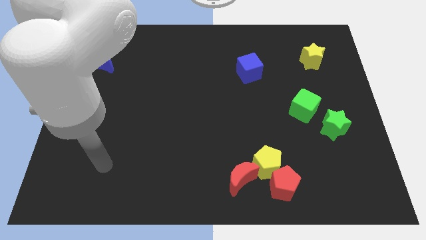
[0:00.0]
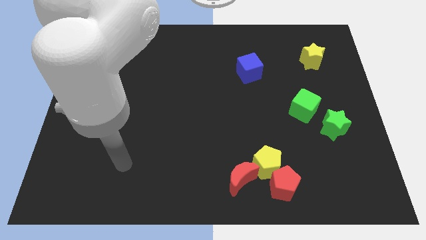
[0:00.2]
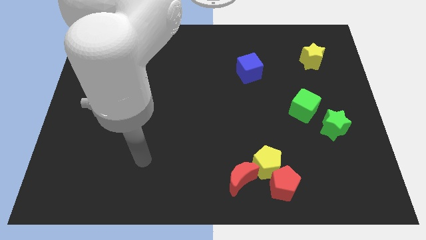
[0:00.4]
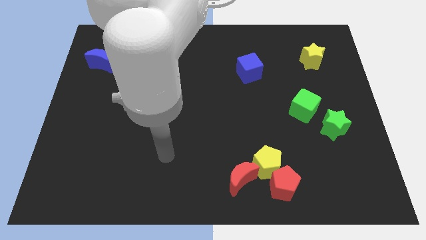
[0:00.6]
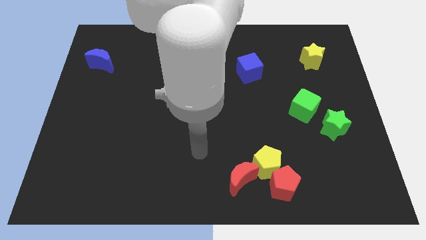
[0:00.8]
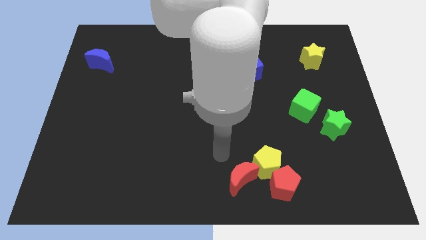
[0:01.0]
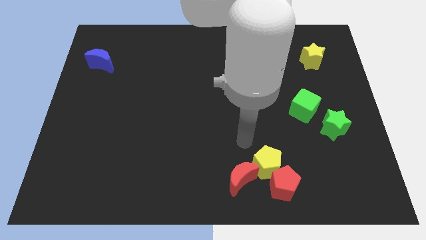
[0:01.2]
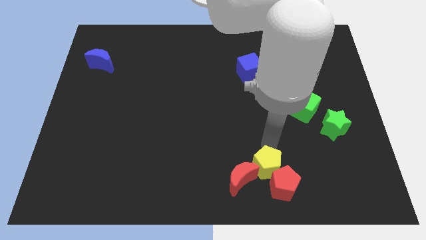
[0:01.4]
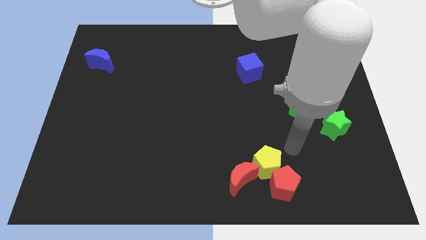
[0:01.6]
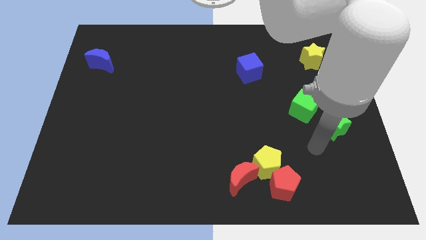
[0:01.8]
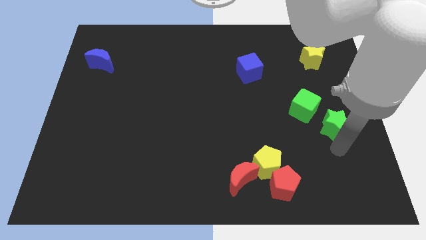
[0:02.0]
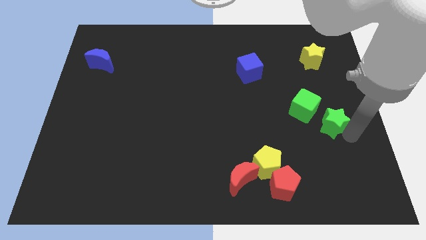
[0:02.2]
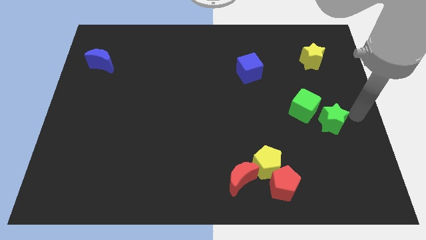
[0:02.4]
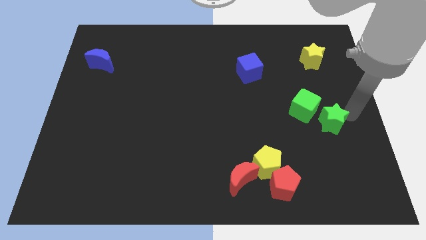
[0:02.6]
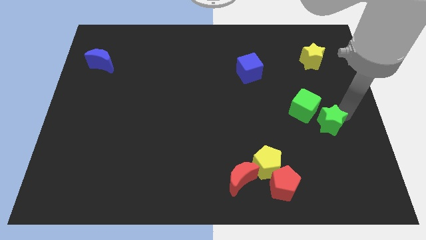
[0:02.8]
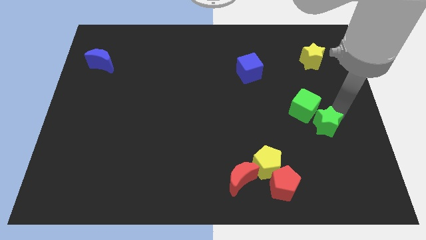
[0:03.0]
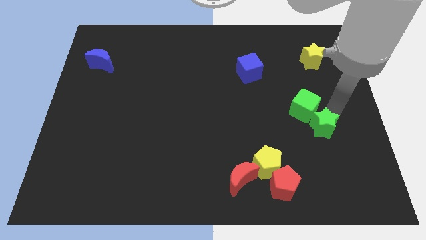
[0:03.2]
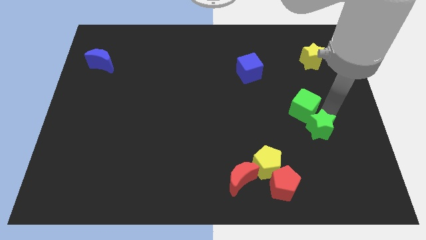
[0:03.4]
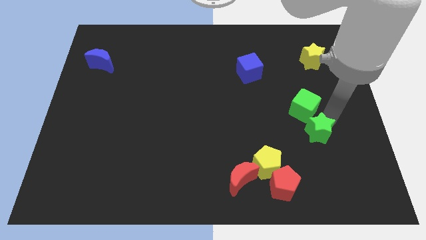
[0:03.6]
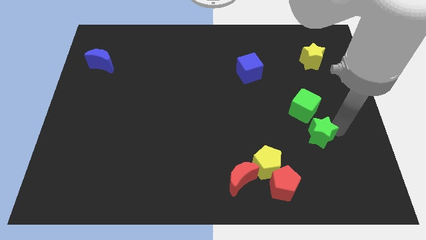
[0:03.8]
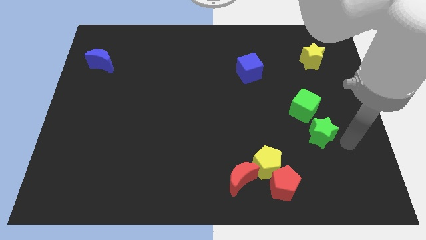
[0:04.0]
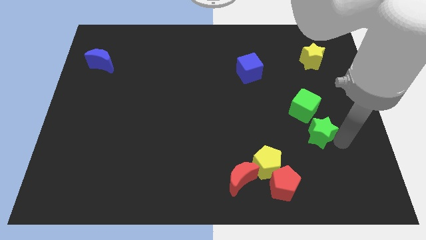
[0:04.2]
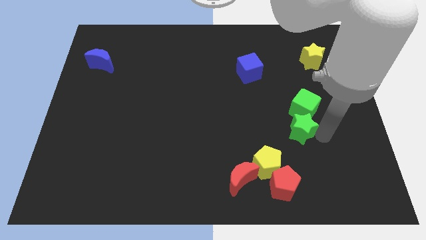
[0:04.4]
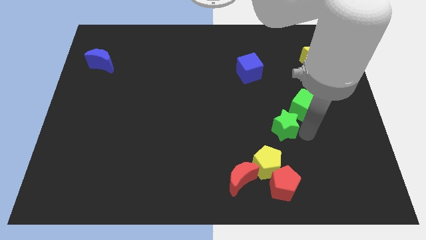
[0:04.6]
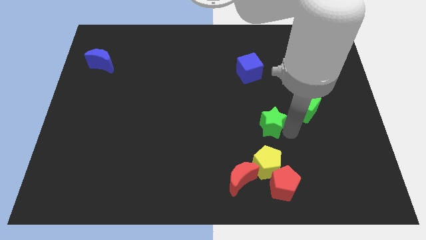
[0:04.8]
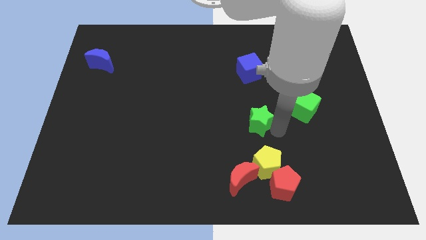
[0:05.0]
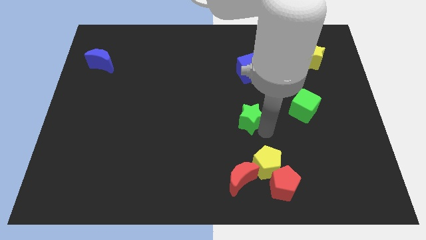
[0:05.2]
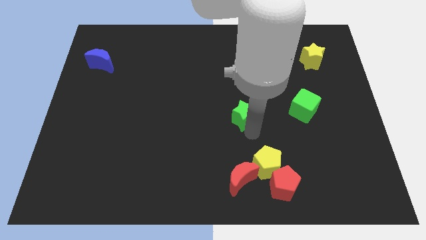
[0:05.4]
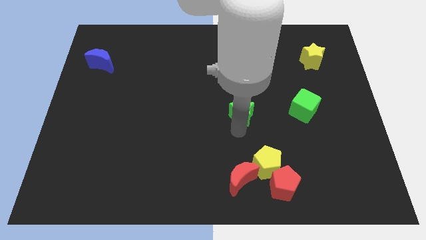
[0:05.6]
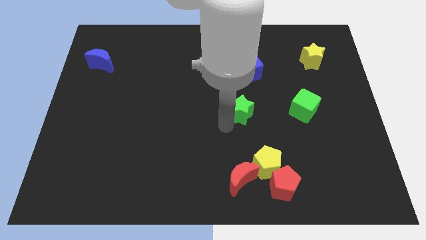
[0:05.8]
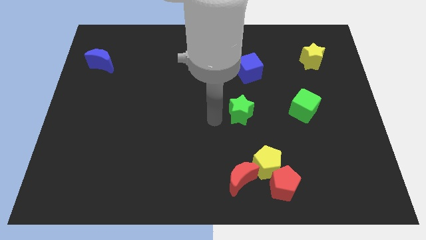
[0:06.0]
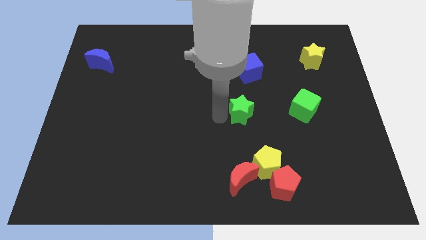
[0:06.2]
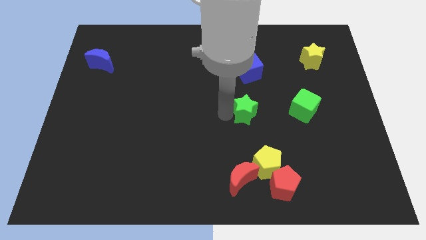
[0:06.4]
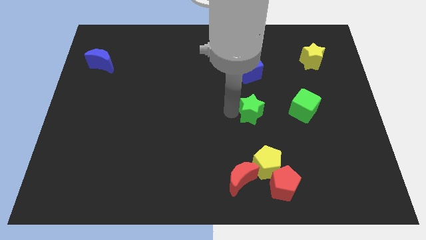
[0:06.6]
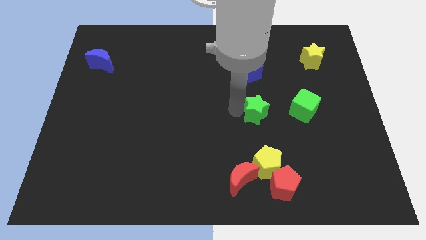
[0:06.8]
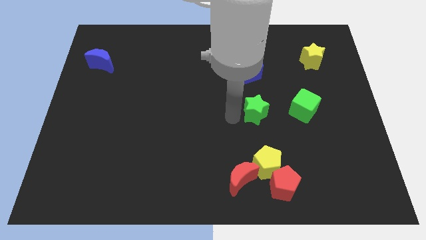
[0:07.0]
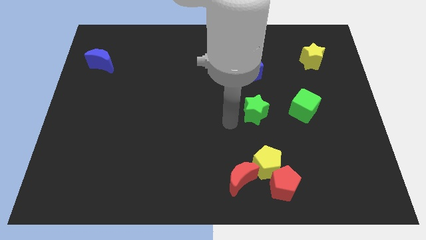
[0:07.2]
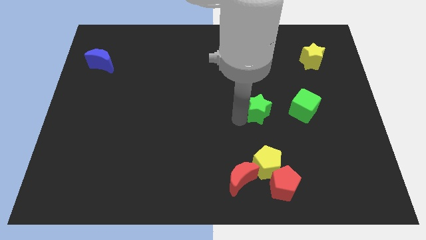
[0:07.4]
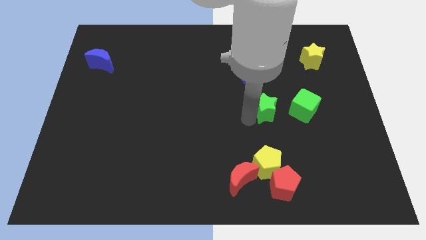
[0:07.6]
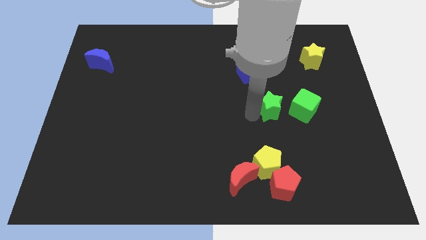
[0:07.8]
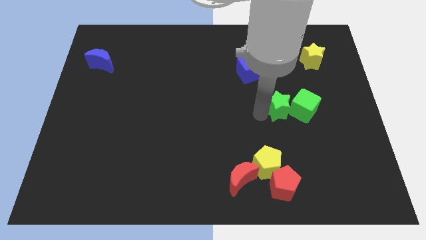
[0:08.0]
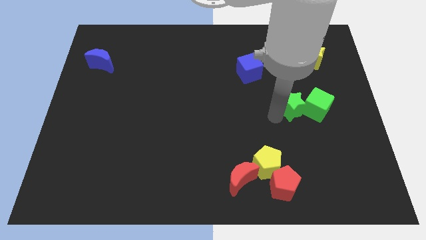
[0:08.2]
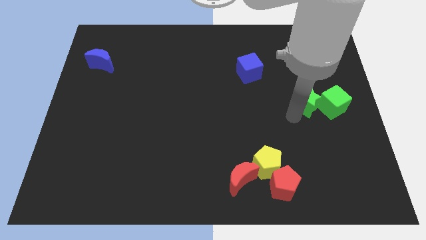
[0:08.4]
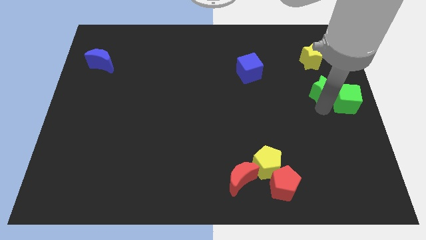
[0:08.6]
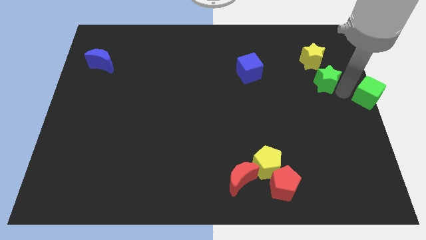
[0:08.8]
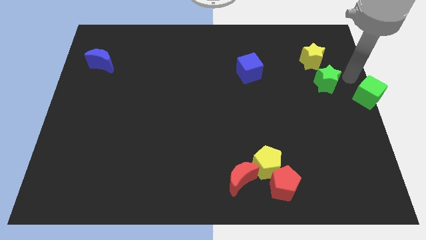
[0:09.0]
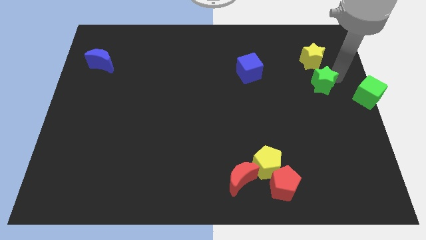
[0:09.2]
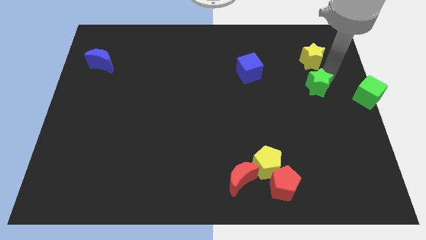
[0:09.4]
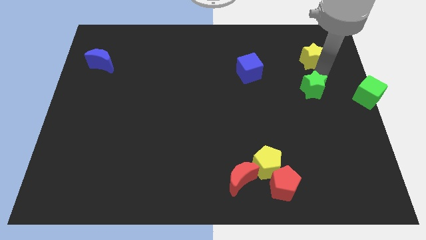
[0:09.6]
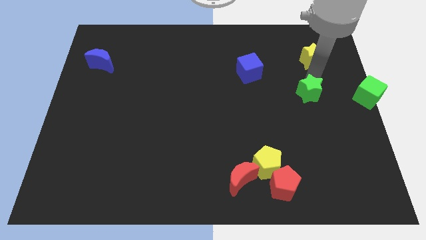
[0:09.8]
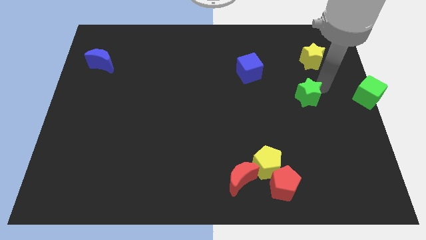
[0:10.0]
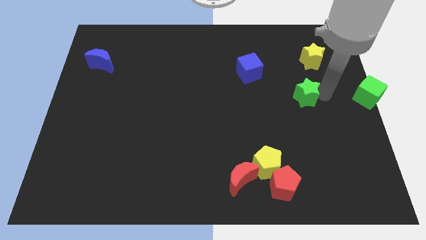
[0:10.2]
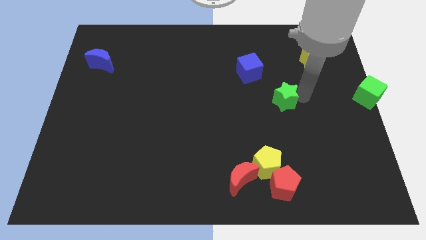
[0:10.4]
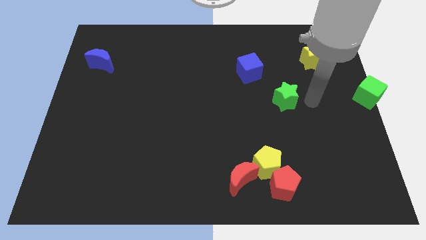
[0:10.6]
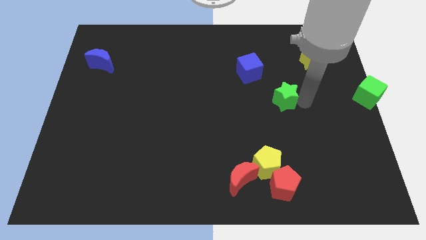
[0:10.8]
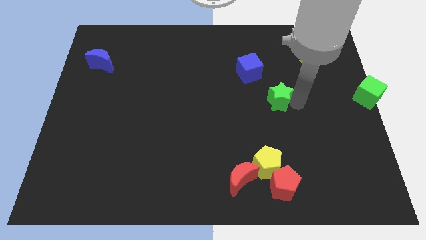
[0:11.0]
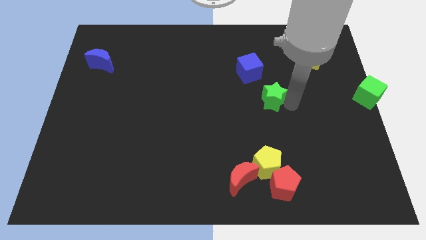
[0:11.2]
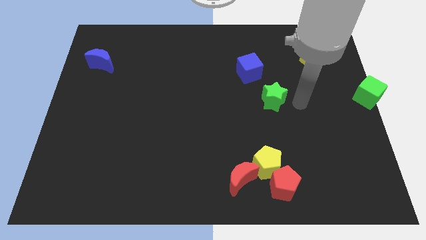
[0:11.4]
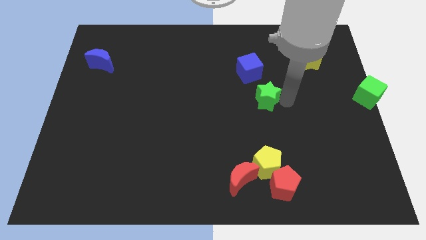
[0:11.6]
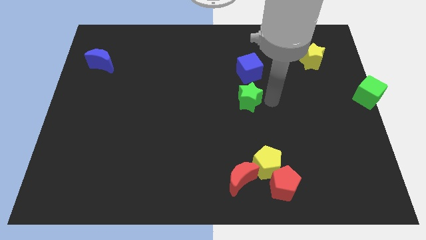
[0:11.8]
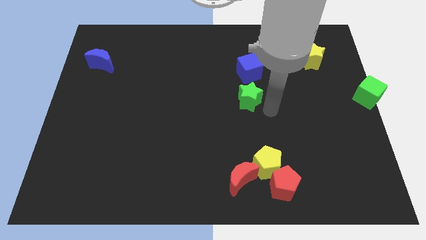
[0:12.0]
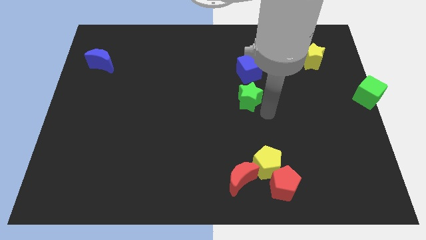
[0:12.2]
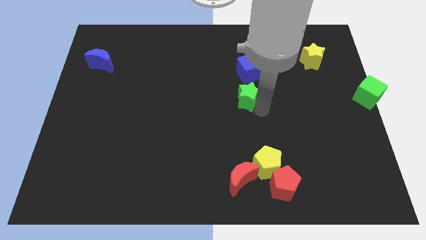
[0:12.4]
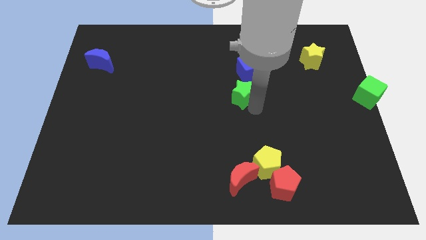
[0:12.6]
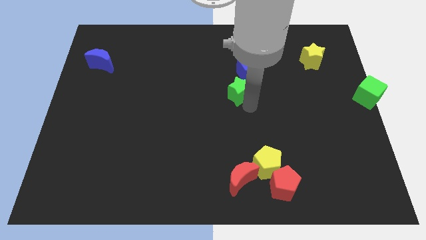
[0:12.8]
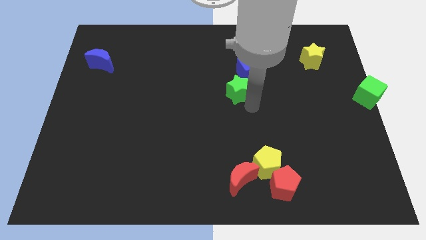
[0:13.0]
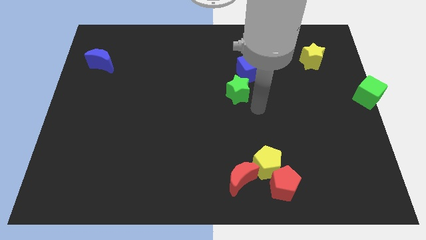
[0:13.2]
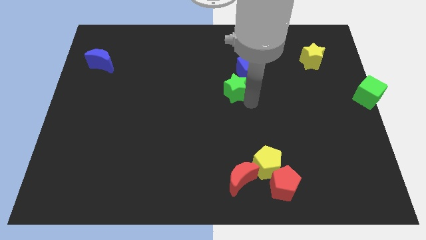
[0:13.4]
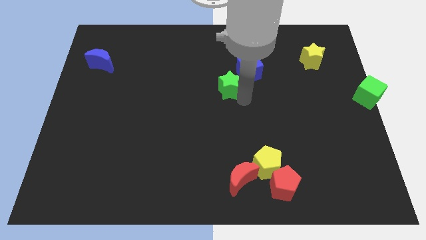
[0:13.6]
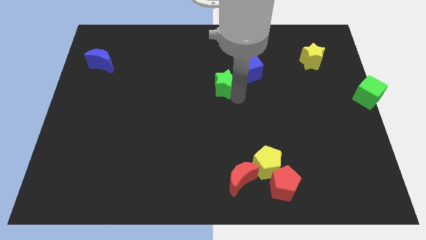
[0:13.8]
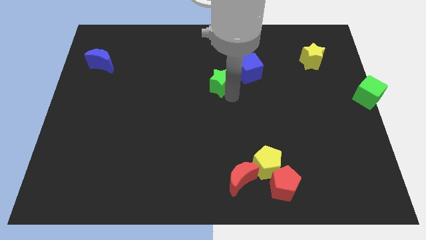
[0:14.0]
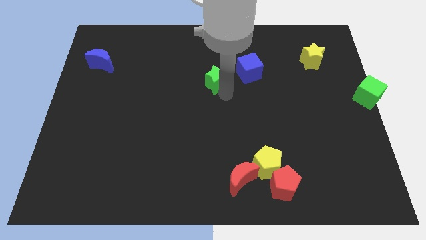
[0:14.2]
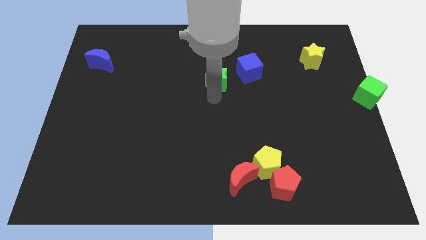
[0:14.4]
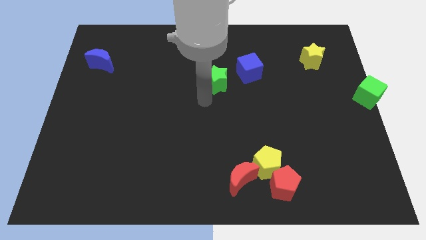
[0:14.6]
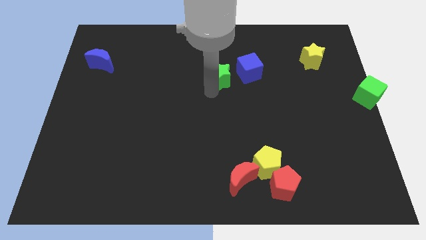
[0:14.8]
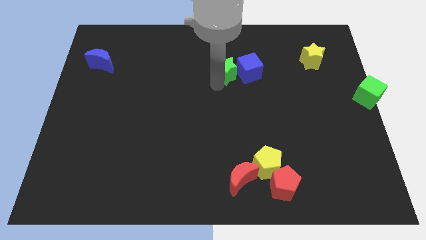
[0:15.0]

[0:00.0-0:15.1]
slide the green star to the top left side of the blue cube
